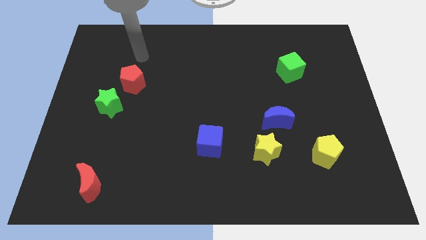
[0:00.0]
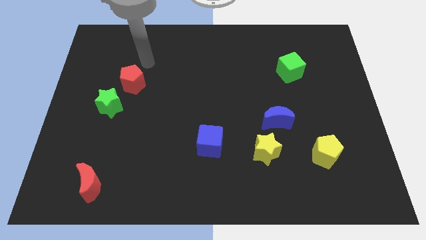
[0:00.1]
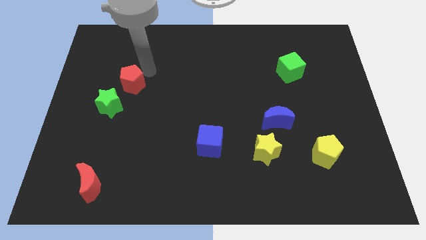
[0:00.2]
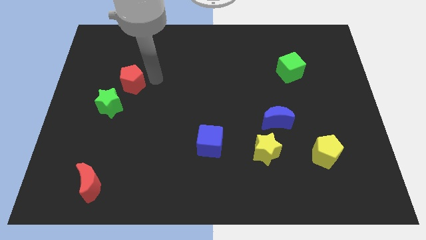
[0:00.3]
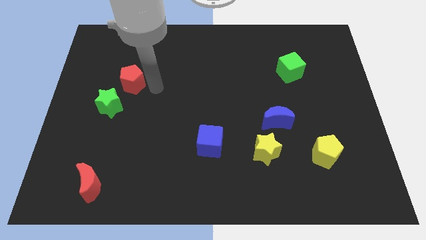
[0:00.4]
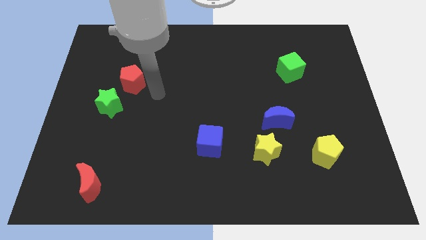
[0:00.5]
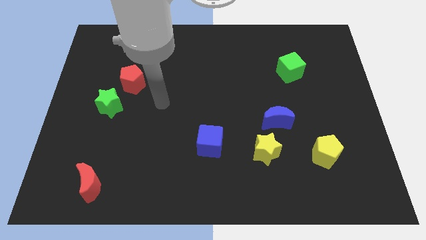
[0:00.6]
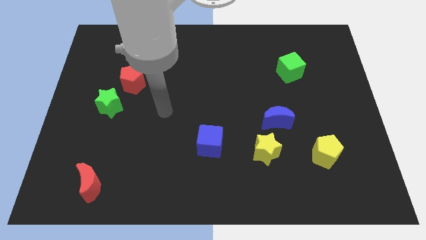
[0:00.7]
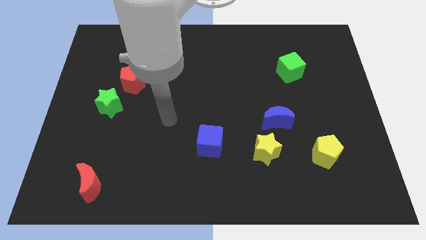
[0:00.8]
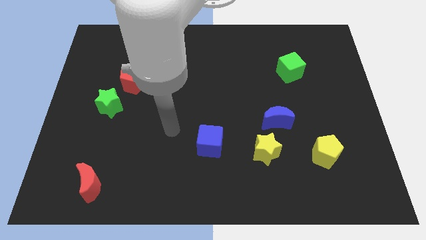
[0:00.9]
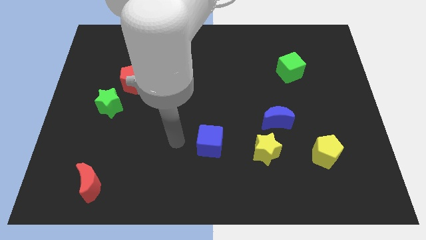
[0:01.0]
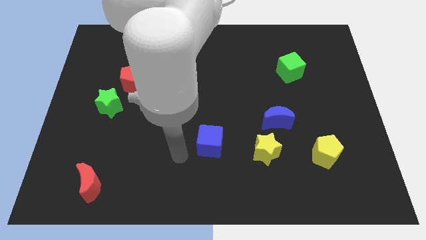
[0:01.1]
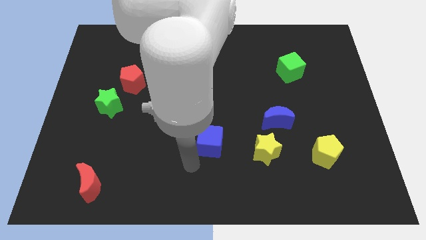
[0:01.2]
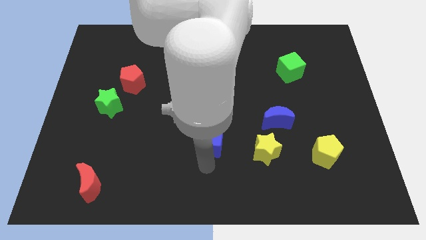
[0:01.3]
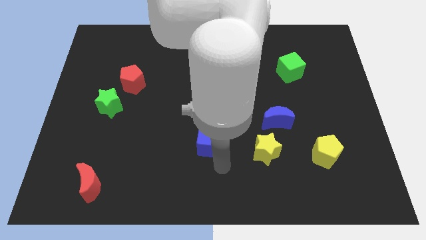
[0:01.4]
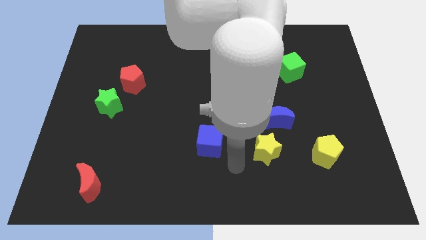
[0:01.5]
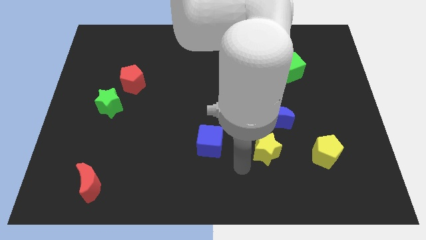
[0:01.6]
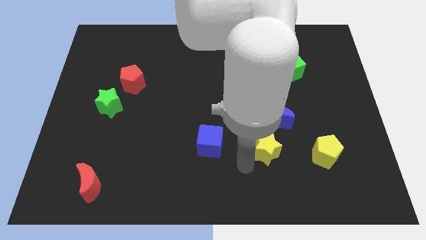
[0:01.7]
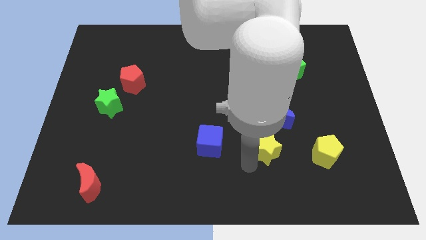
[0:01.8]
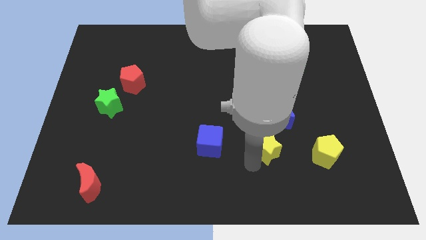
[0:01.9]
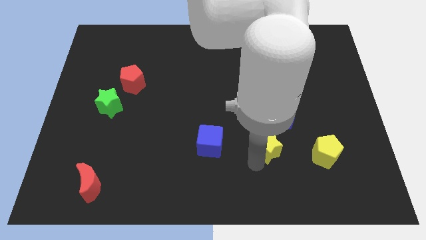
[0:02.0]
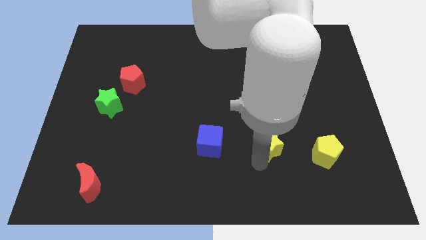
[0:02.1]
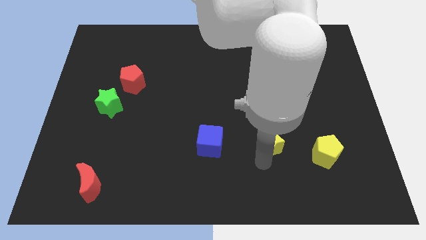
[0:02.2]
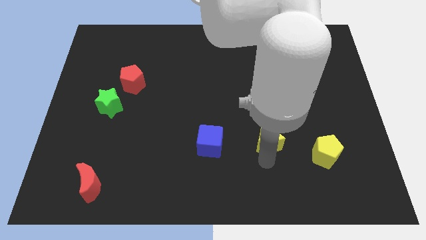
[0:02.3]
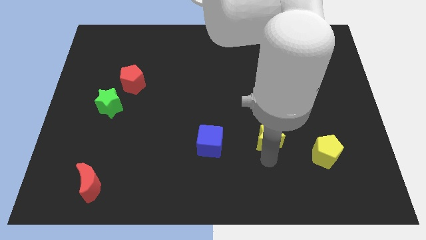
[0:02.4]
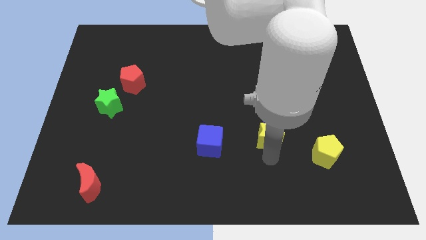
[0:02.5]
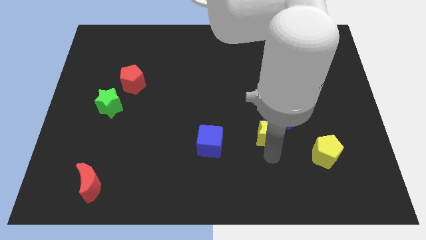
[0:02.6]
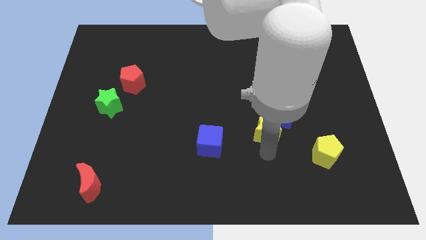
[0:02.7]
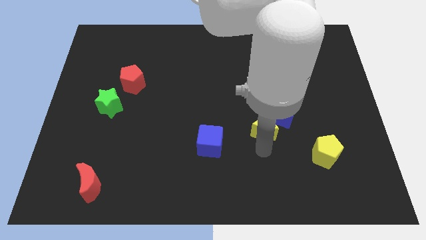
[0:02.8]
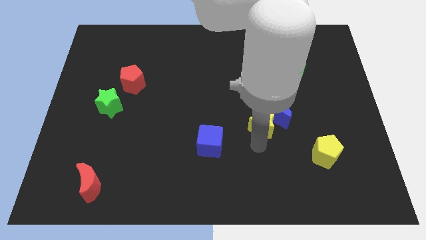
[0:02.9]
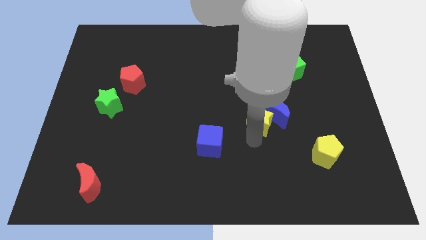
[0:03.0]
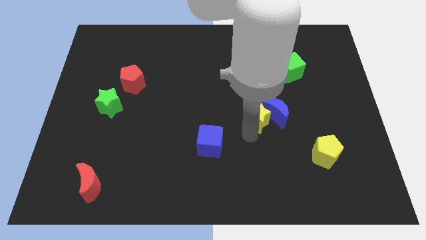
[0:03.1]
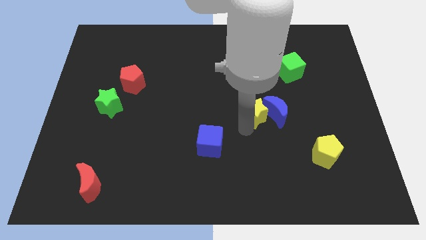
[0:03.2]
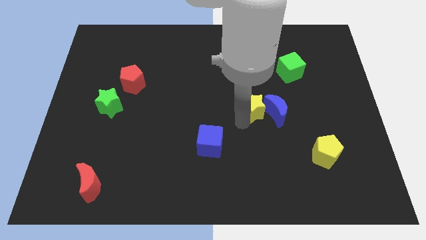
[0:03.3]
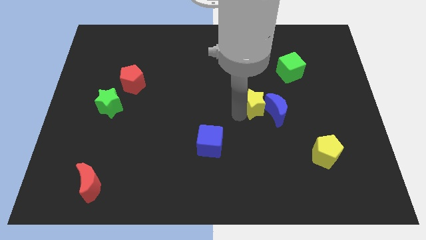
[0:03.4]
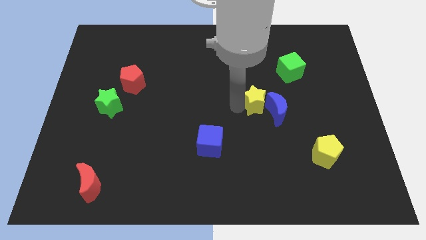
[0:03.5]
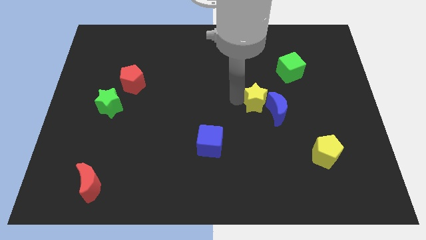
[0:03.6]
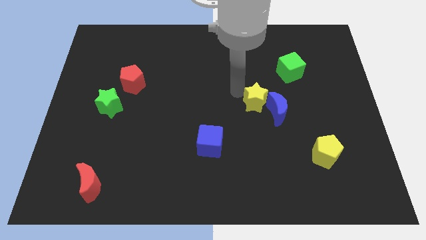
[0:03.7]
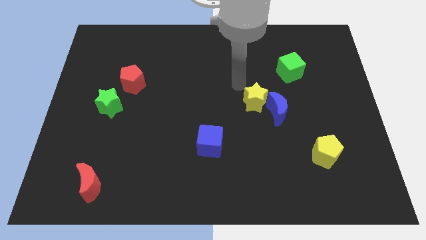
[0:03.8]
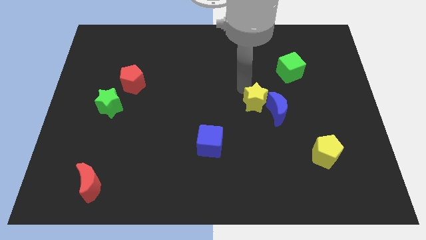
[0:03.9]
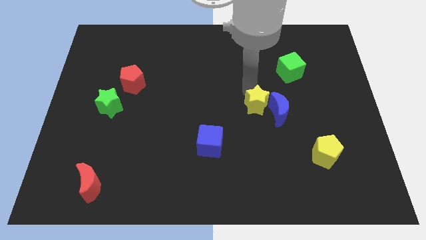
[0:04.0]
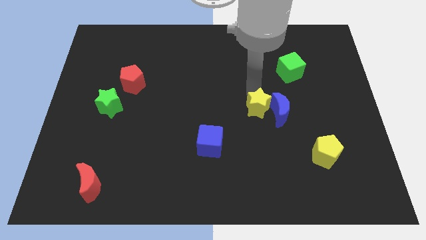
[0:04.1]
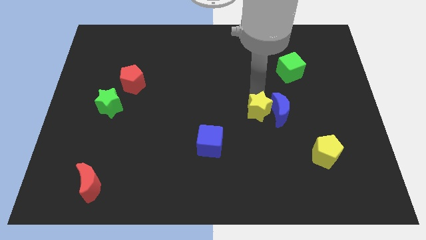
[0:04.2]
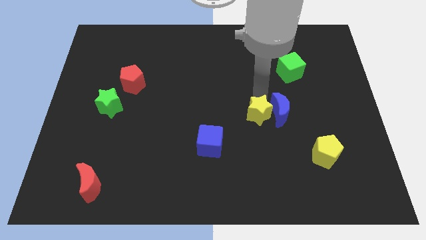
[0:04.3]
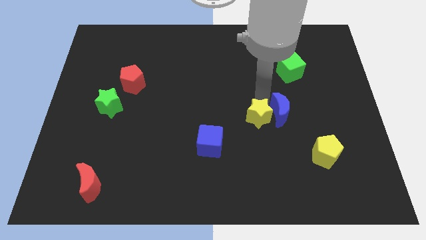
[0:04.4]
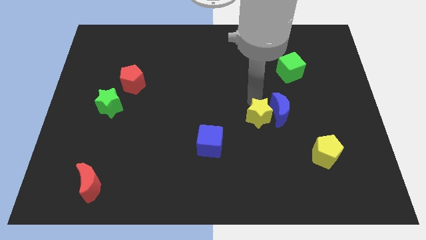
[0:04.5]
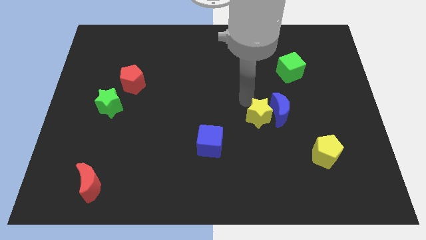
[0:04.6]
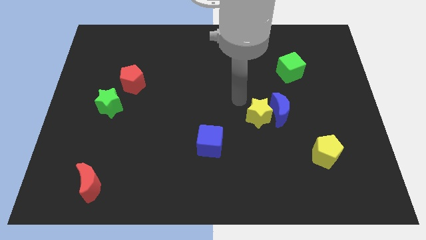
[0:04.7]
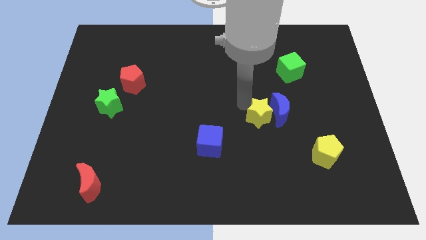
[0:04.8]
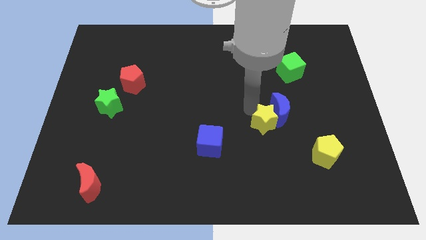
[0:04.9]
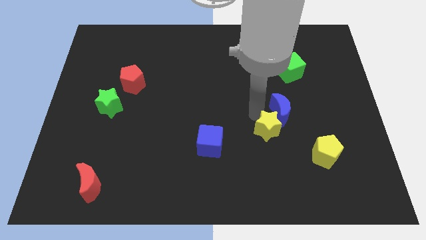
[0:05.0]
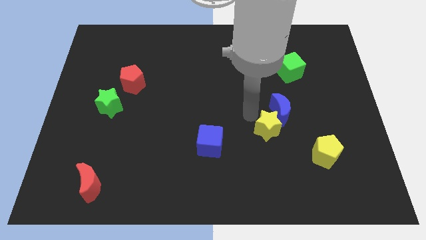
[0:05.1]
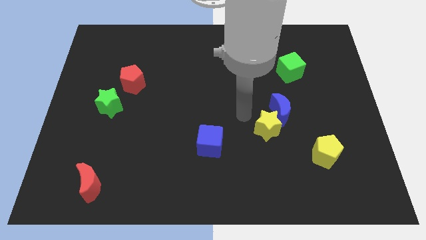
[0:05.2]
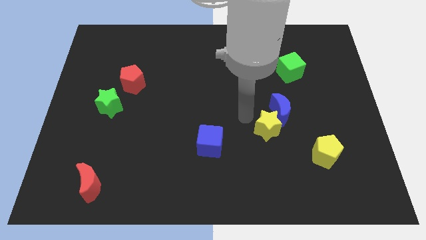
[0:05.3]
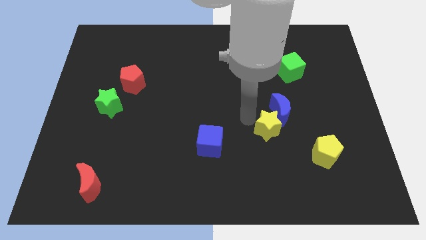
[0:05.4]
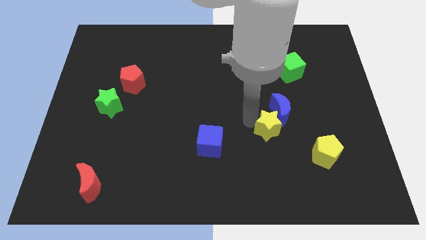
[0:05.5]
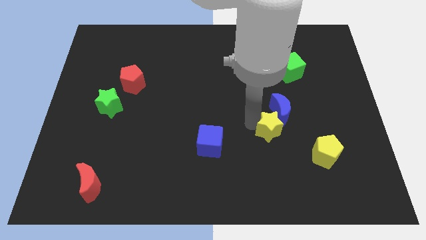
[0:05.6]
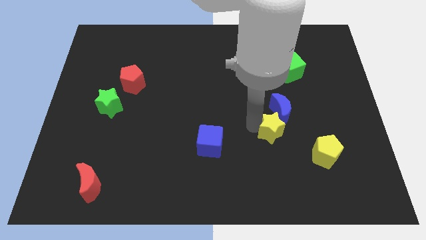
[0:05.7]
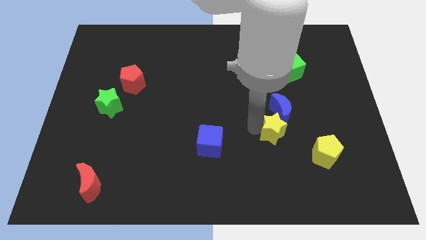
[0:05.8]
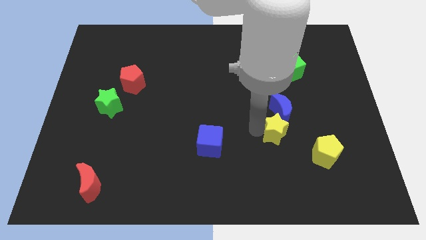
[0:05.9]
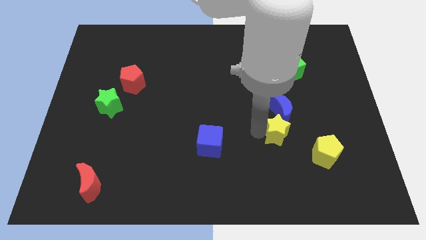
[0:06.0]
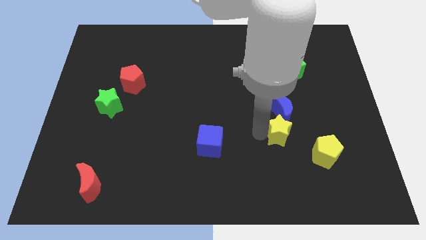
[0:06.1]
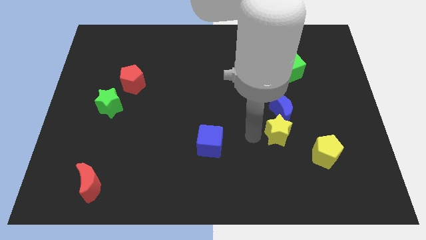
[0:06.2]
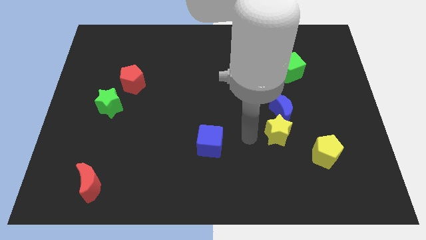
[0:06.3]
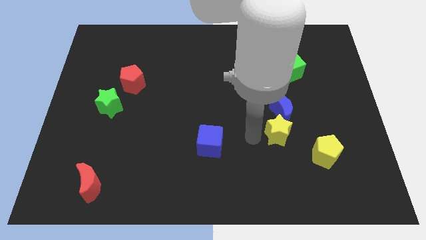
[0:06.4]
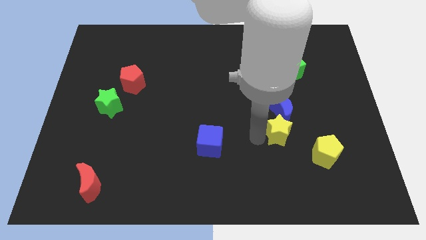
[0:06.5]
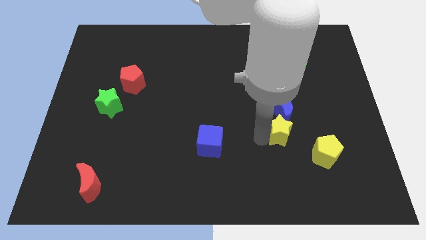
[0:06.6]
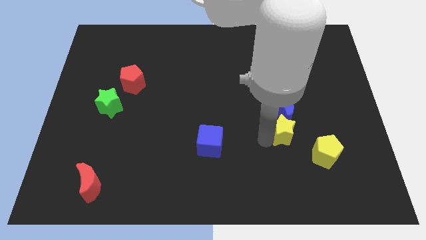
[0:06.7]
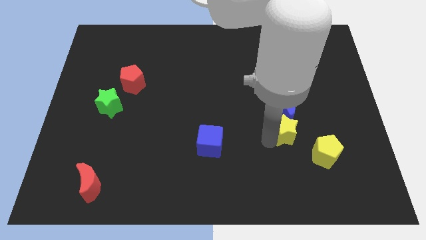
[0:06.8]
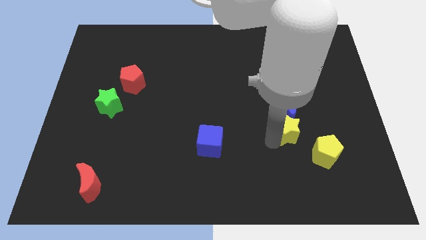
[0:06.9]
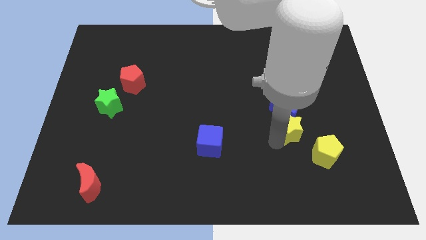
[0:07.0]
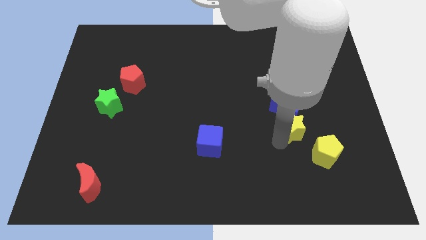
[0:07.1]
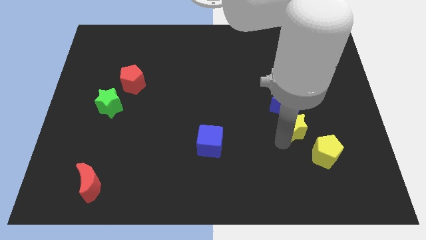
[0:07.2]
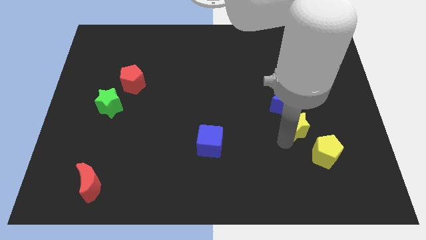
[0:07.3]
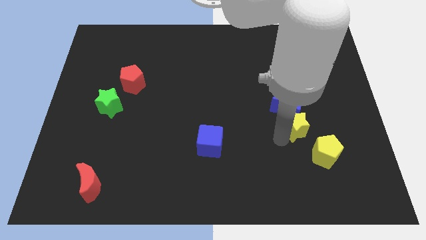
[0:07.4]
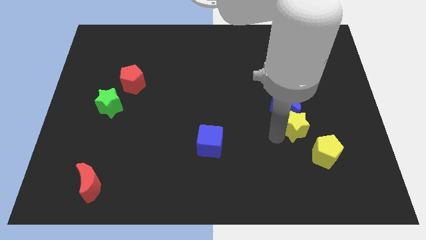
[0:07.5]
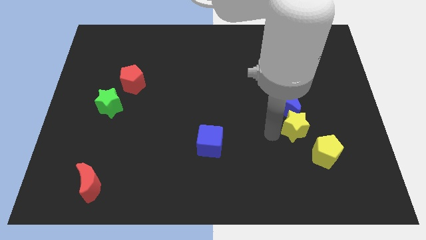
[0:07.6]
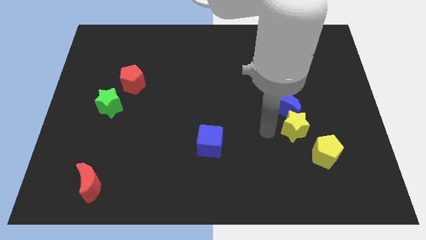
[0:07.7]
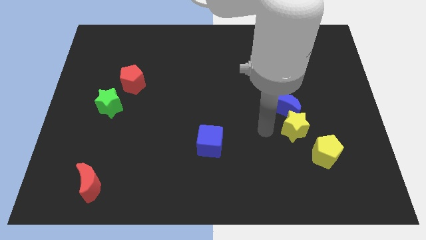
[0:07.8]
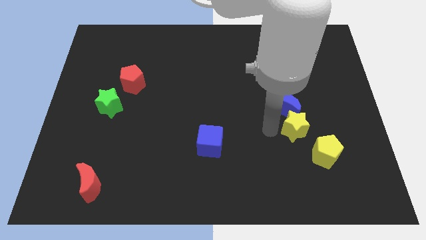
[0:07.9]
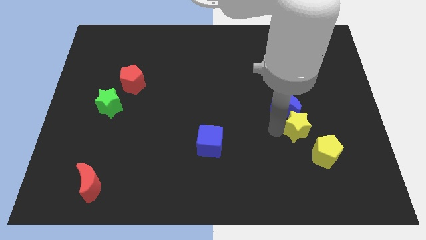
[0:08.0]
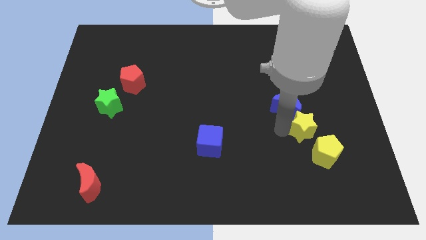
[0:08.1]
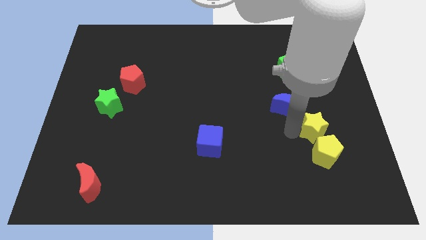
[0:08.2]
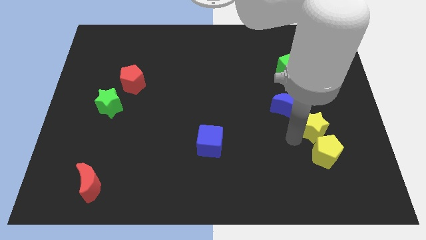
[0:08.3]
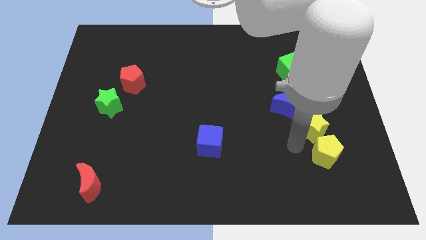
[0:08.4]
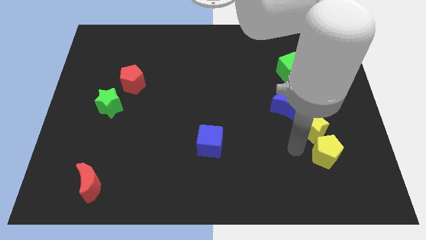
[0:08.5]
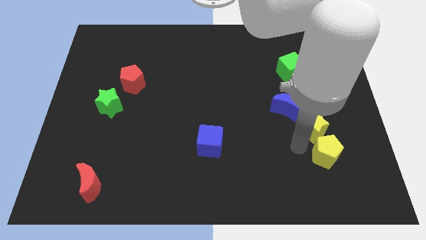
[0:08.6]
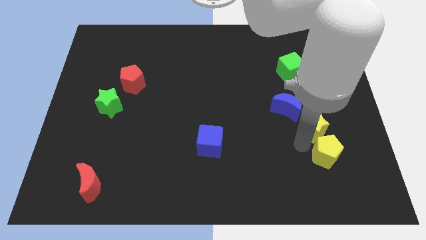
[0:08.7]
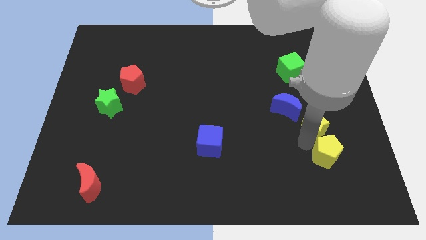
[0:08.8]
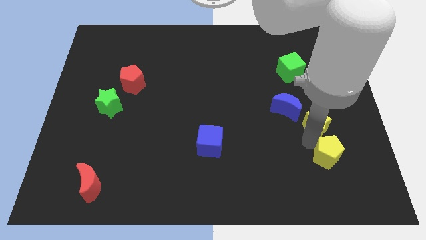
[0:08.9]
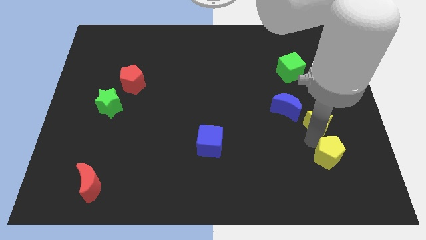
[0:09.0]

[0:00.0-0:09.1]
move the yellow star just right of the blue moon
